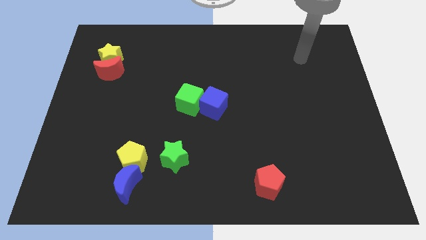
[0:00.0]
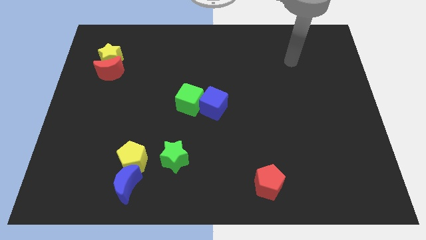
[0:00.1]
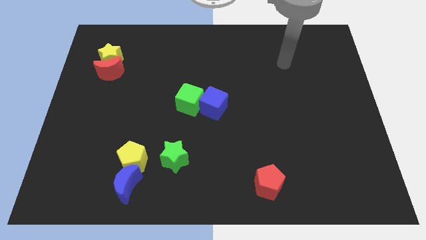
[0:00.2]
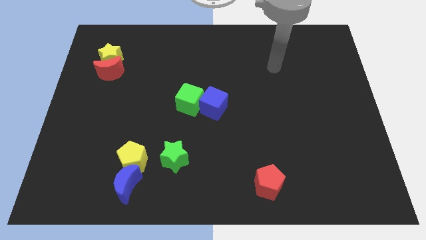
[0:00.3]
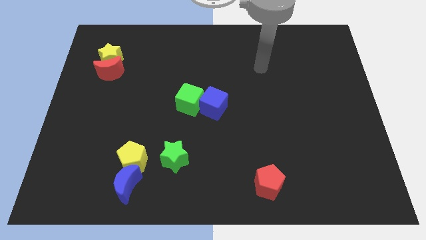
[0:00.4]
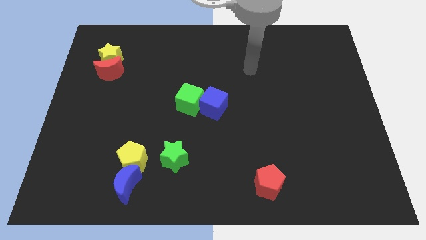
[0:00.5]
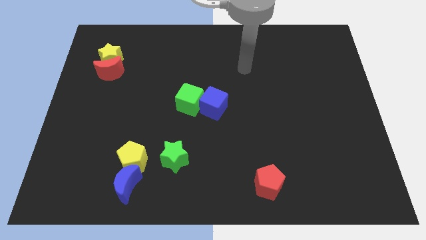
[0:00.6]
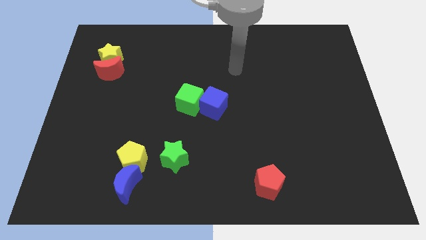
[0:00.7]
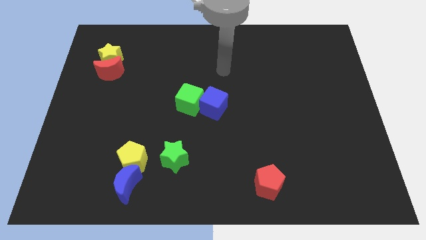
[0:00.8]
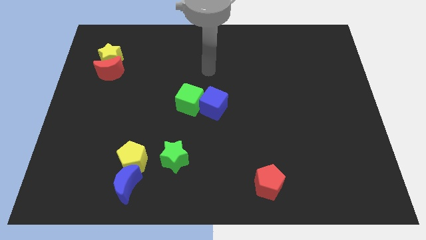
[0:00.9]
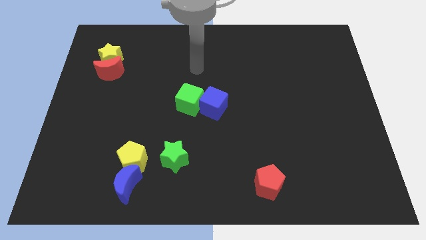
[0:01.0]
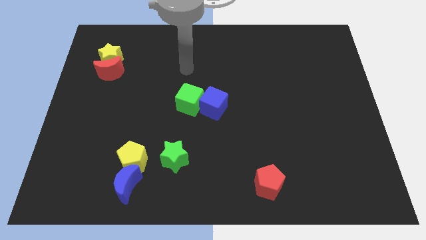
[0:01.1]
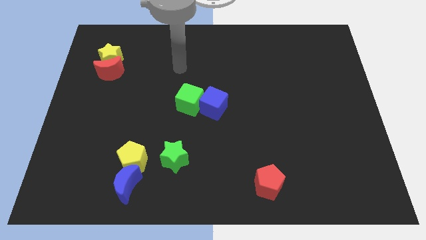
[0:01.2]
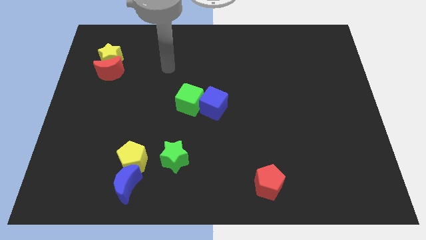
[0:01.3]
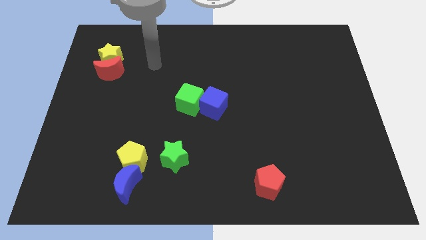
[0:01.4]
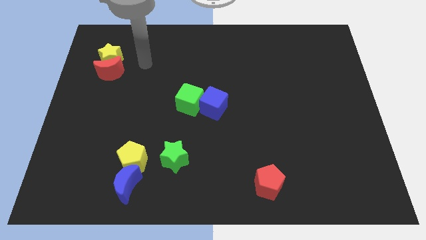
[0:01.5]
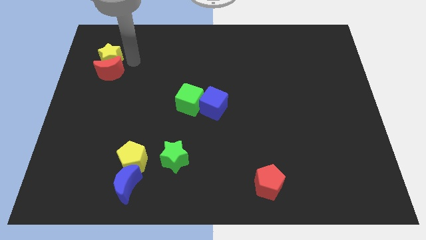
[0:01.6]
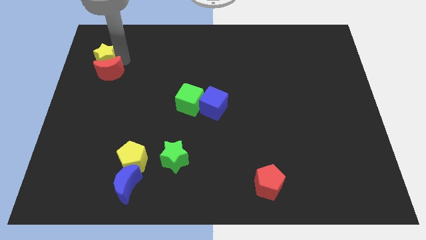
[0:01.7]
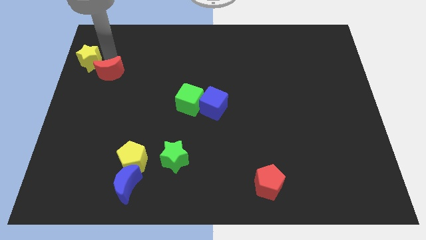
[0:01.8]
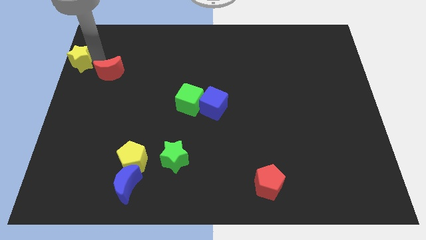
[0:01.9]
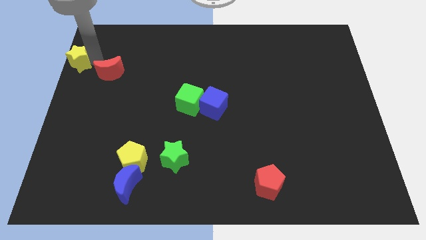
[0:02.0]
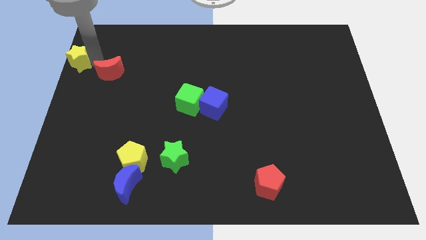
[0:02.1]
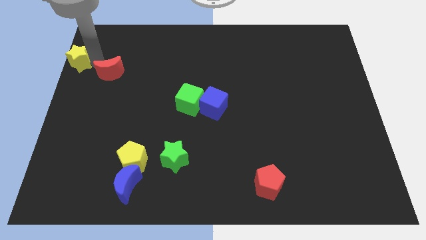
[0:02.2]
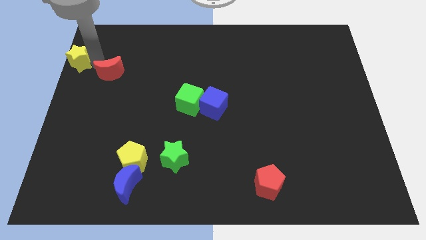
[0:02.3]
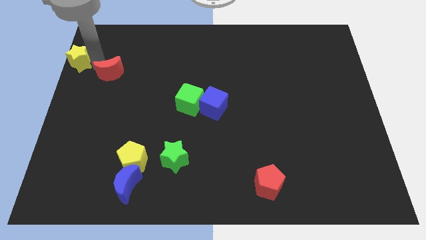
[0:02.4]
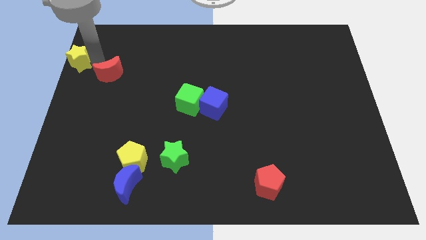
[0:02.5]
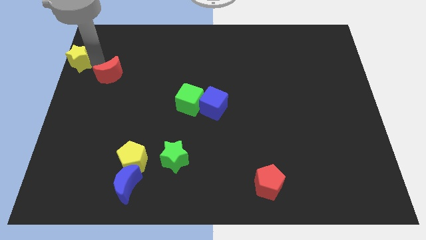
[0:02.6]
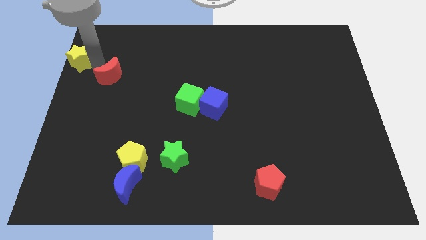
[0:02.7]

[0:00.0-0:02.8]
separate the red moon from the yellow star

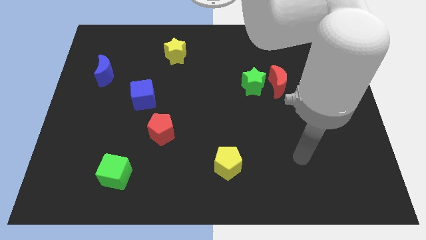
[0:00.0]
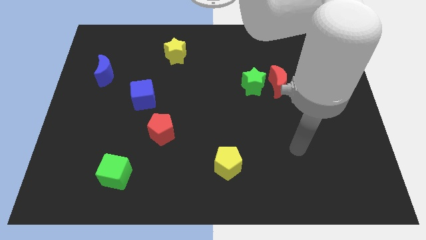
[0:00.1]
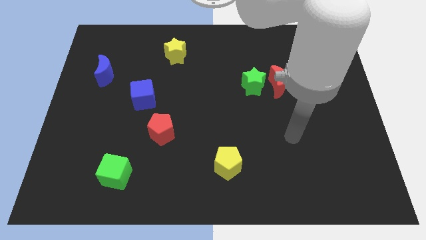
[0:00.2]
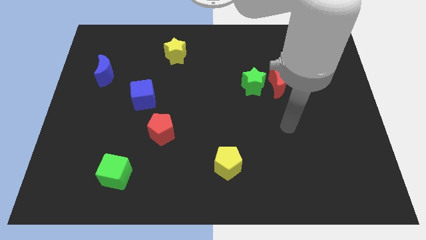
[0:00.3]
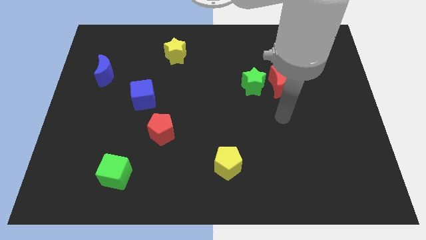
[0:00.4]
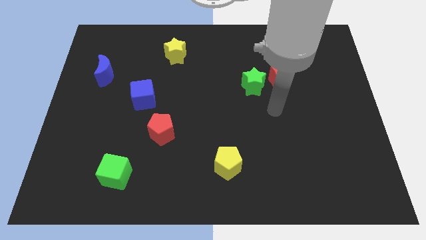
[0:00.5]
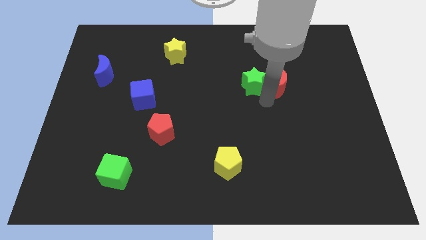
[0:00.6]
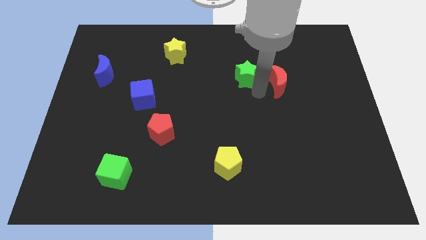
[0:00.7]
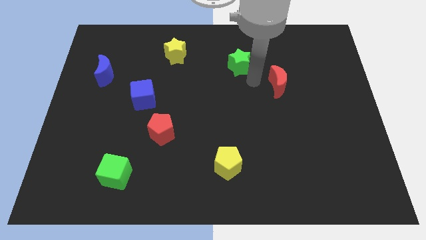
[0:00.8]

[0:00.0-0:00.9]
move the red moon away from the green star

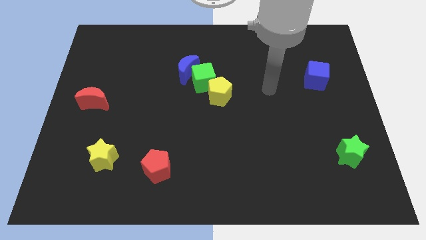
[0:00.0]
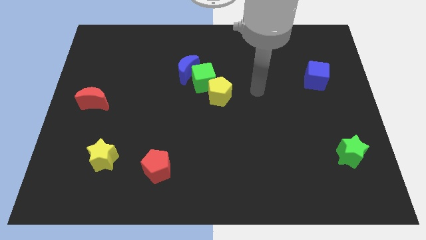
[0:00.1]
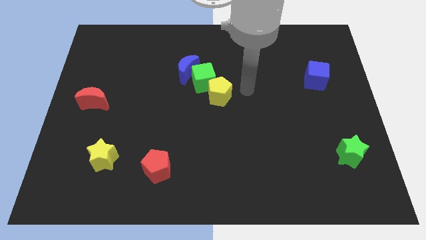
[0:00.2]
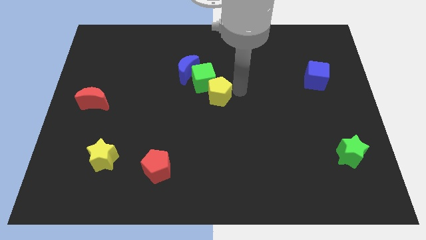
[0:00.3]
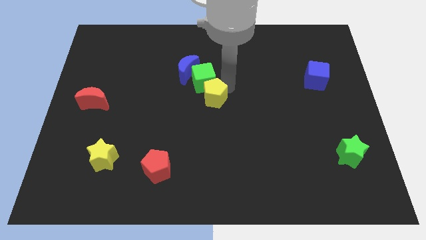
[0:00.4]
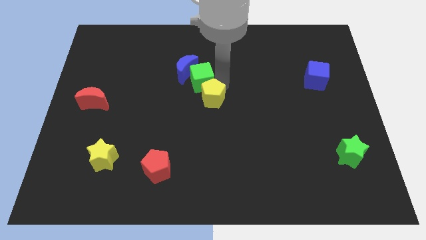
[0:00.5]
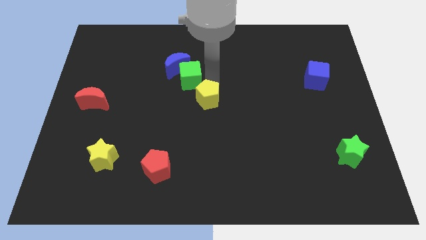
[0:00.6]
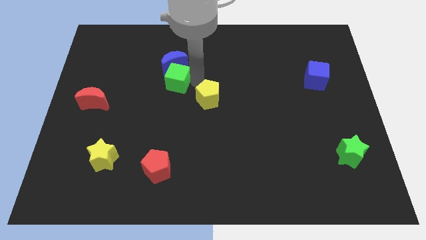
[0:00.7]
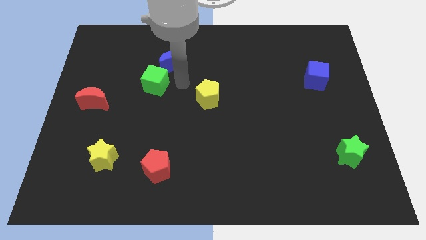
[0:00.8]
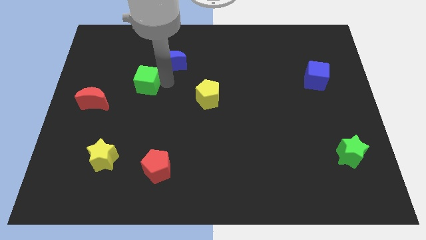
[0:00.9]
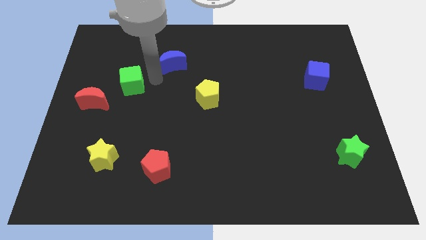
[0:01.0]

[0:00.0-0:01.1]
pull the blue moon apart from the green cube

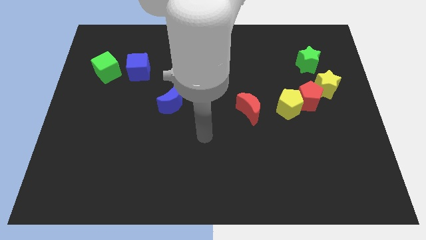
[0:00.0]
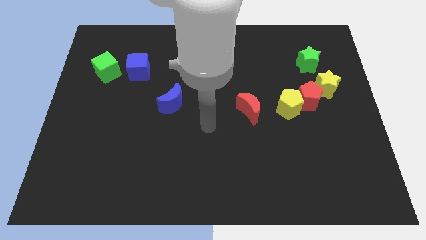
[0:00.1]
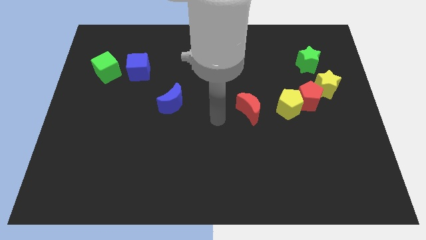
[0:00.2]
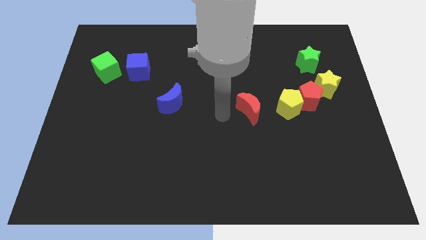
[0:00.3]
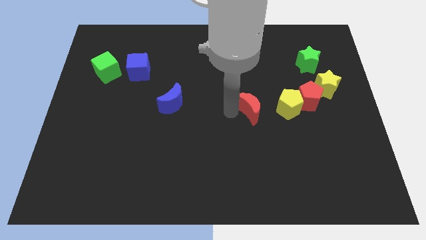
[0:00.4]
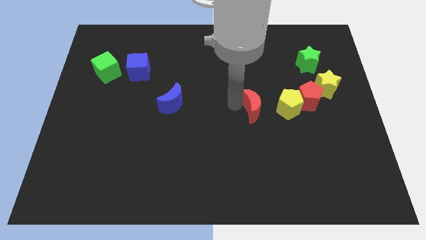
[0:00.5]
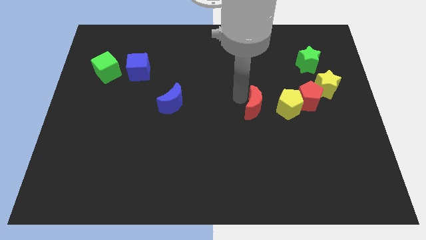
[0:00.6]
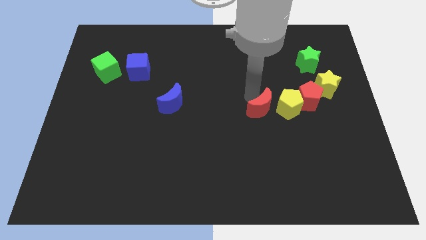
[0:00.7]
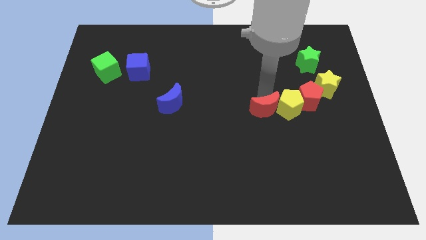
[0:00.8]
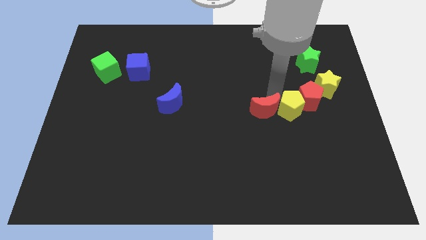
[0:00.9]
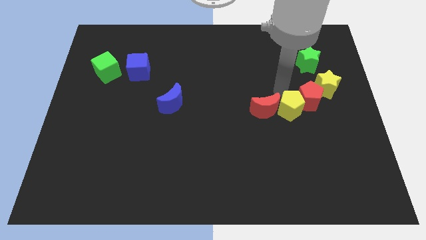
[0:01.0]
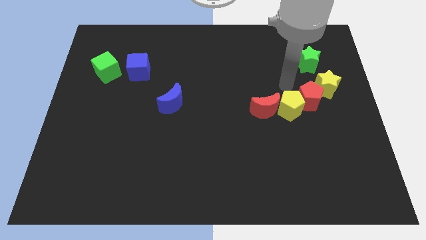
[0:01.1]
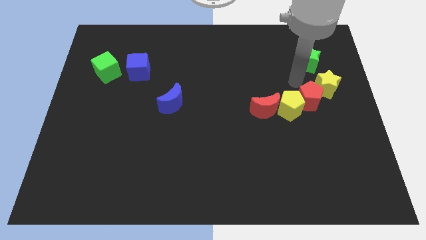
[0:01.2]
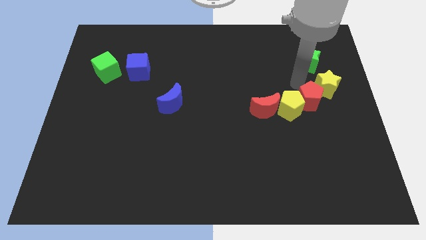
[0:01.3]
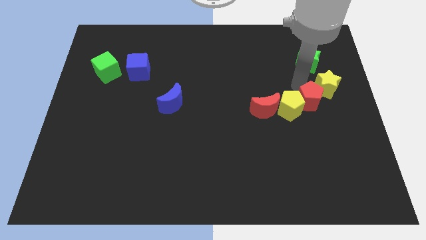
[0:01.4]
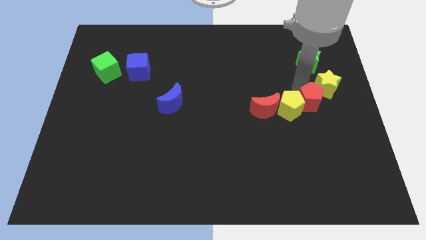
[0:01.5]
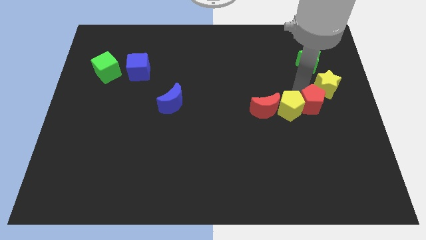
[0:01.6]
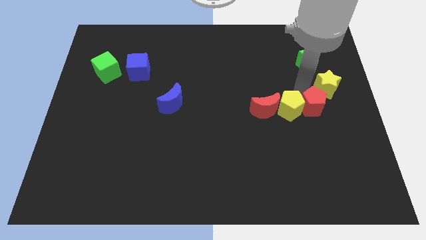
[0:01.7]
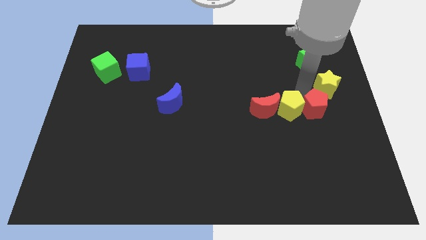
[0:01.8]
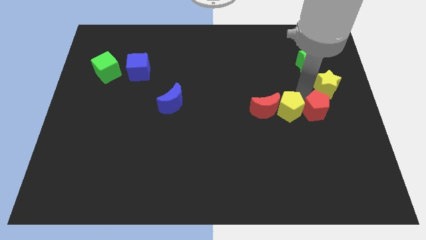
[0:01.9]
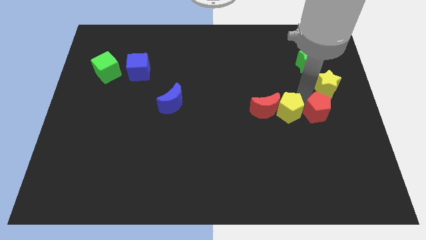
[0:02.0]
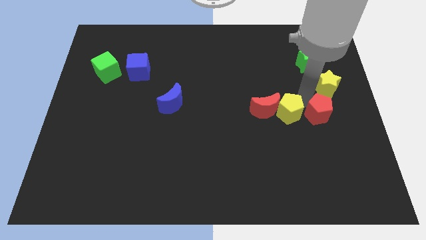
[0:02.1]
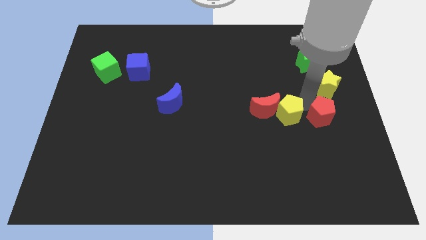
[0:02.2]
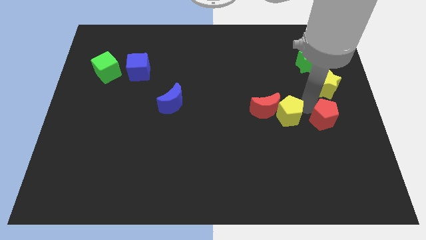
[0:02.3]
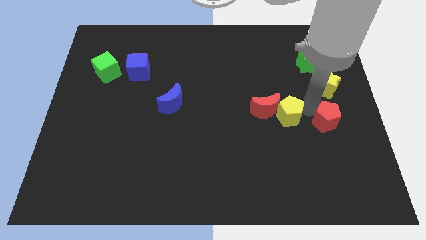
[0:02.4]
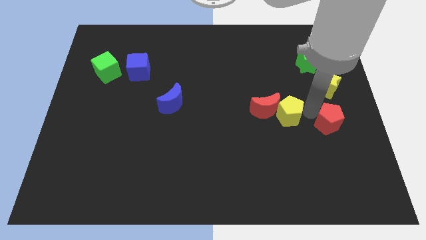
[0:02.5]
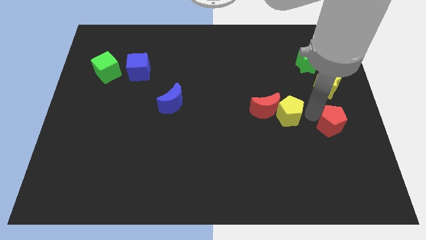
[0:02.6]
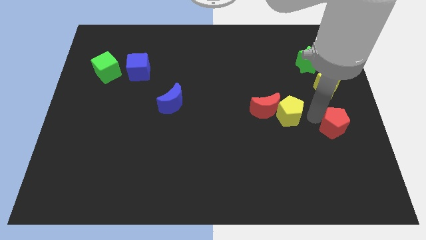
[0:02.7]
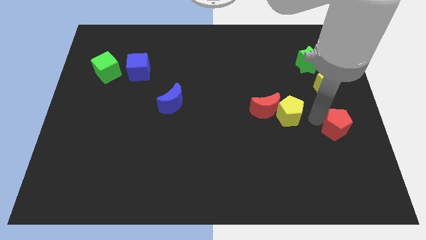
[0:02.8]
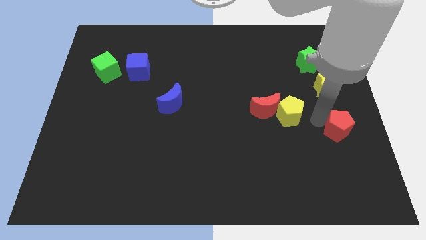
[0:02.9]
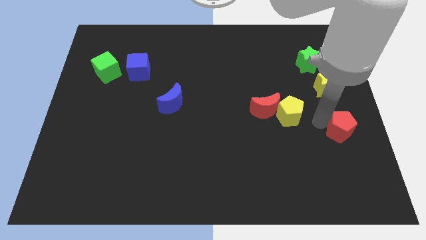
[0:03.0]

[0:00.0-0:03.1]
separate the red pentagon from the yellow pentagon and yellow star

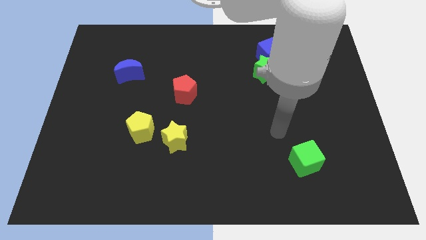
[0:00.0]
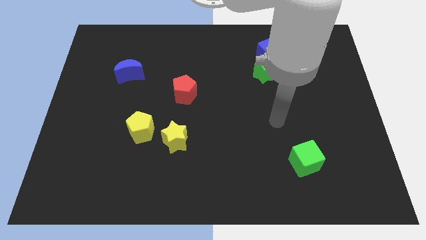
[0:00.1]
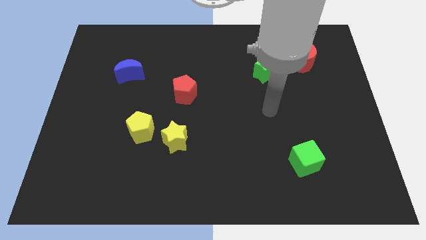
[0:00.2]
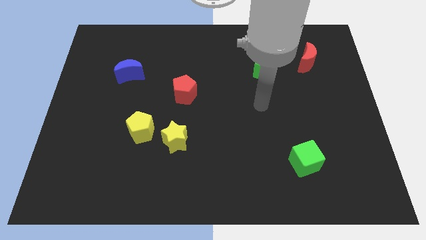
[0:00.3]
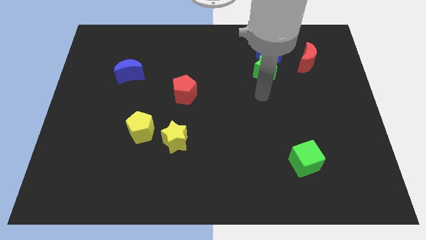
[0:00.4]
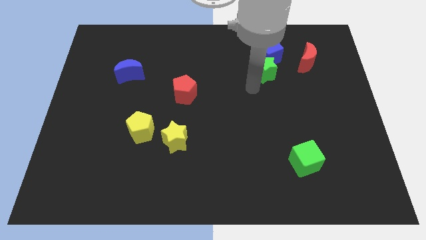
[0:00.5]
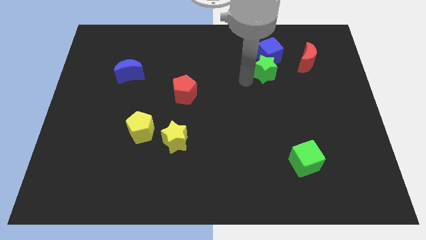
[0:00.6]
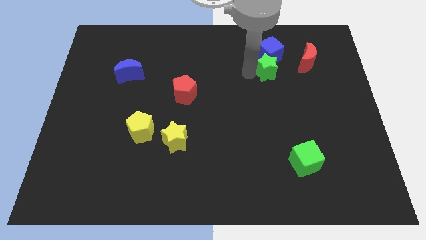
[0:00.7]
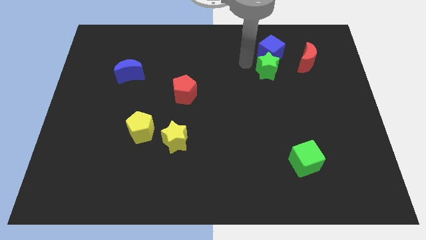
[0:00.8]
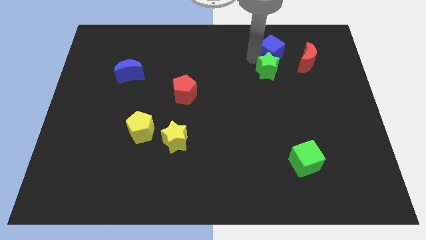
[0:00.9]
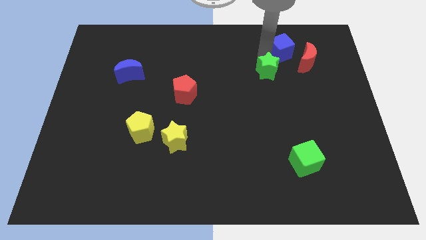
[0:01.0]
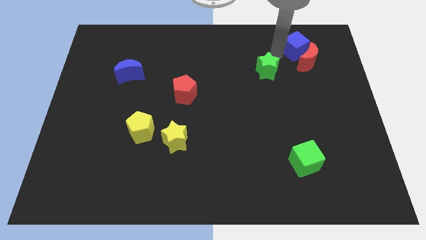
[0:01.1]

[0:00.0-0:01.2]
move the green star away from the blue cube
